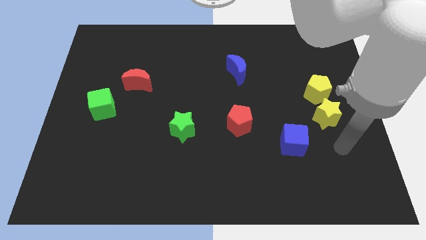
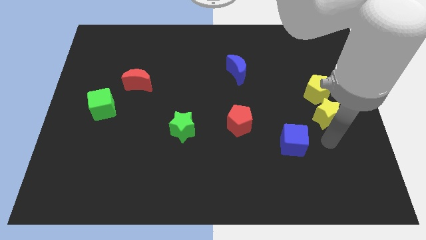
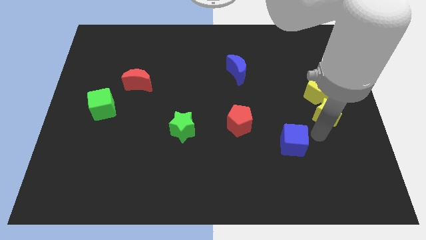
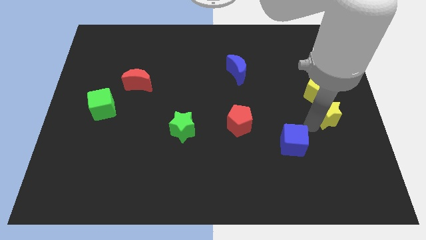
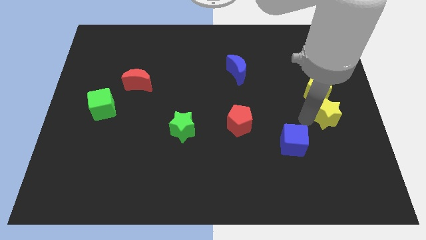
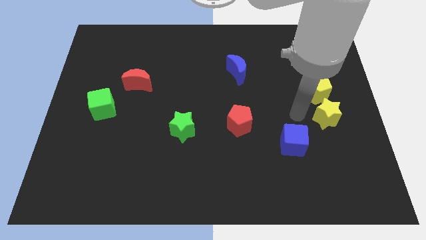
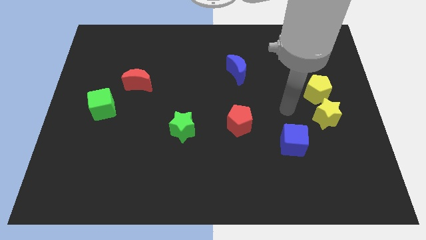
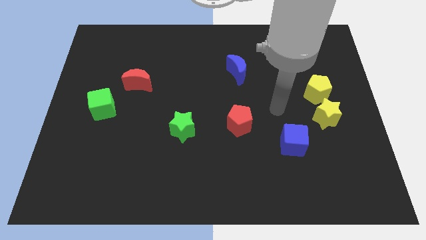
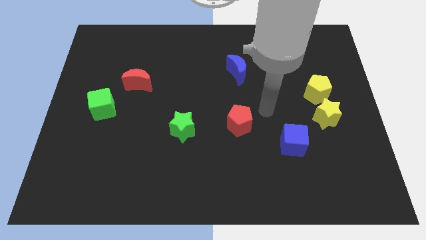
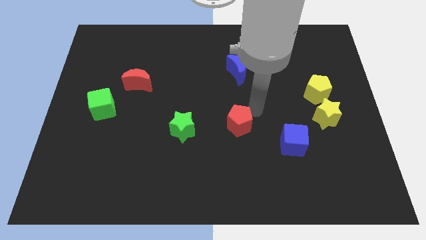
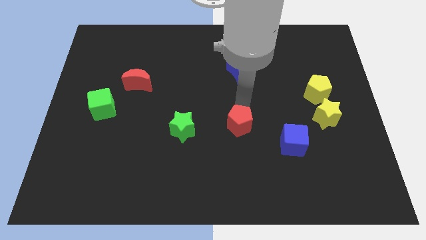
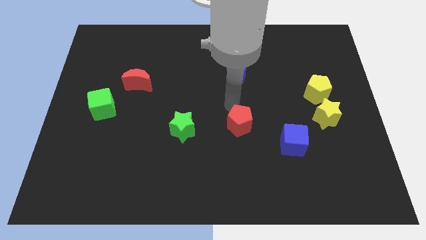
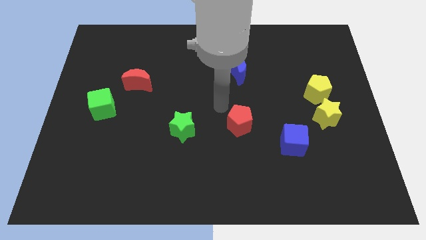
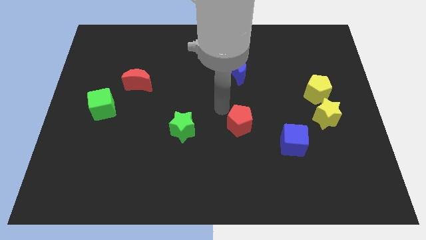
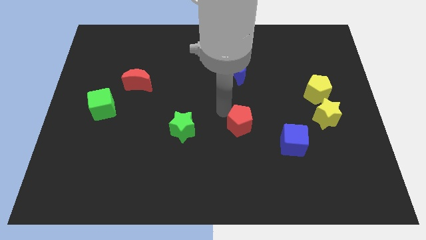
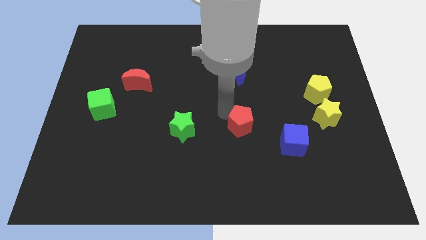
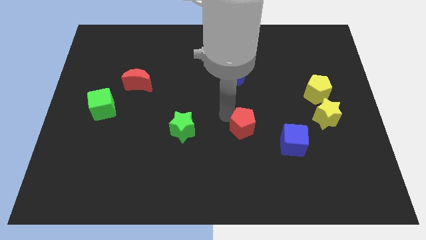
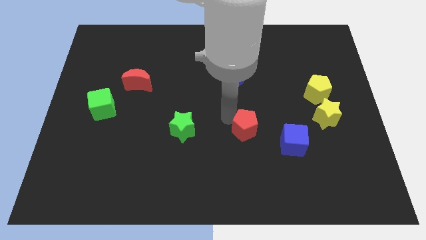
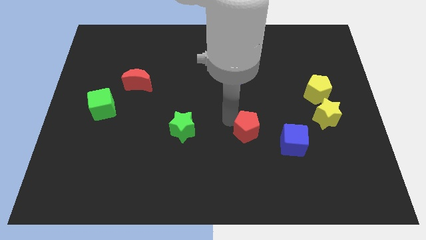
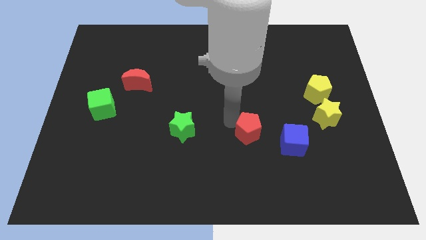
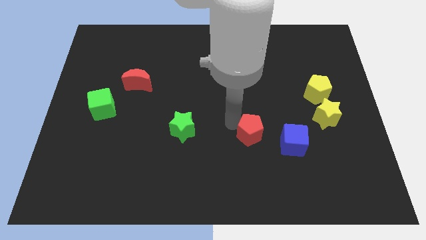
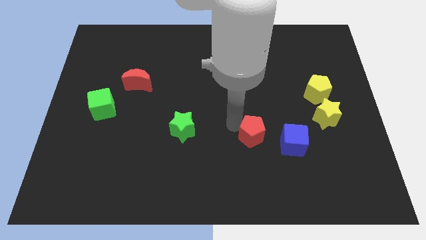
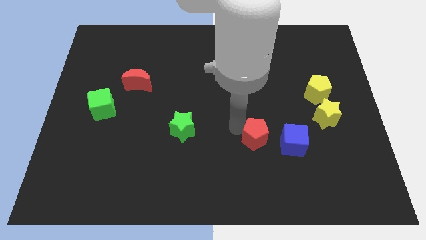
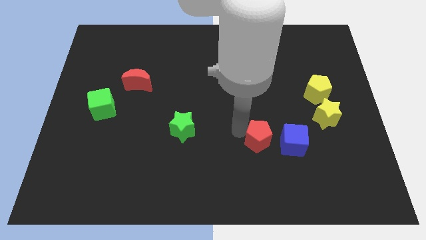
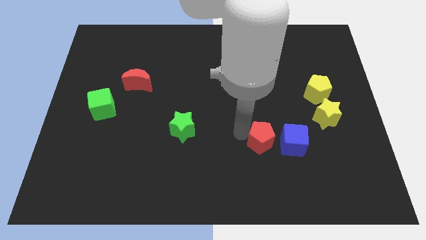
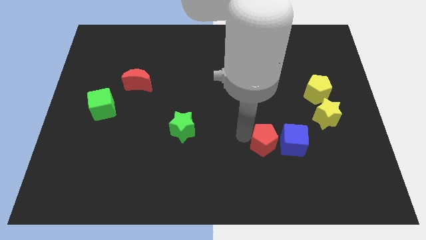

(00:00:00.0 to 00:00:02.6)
push the red pentagon a little bit down and then right

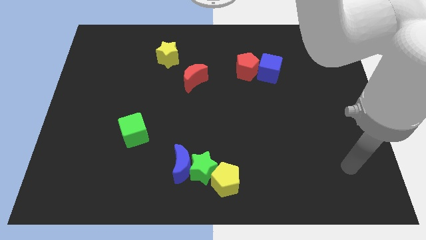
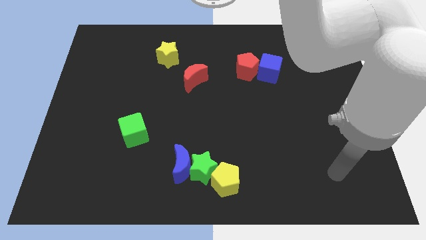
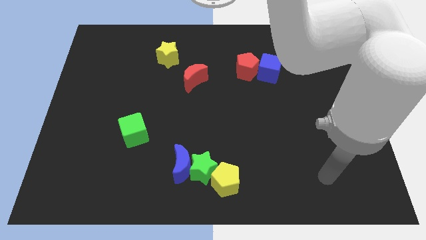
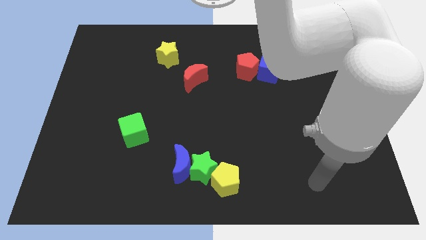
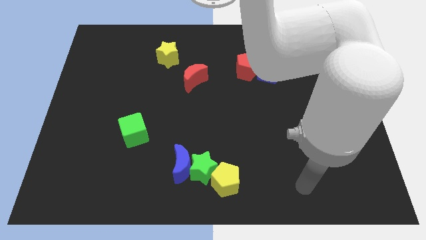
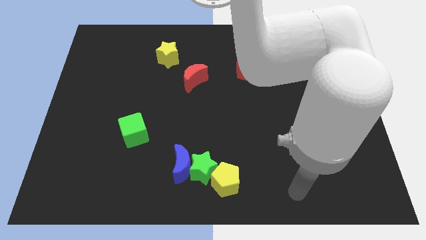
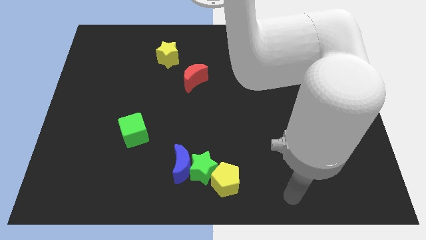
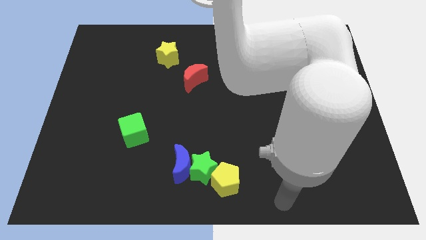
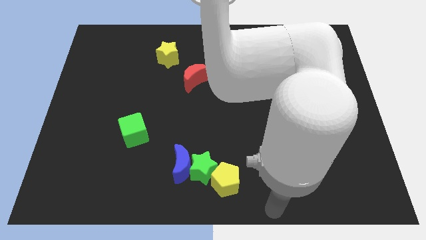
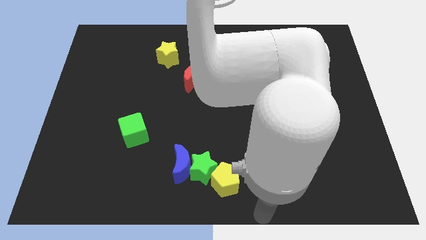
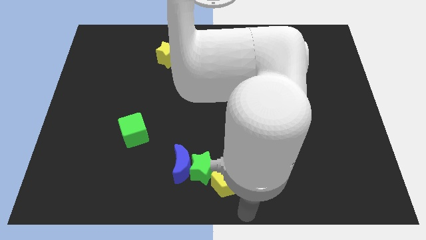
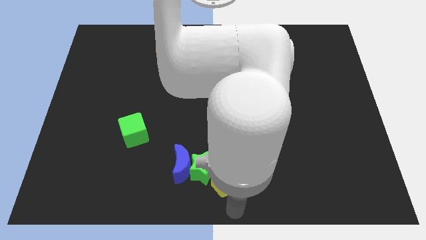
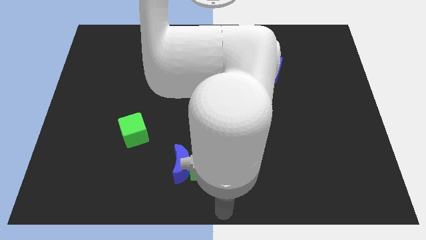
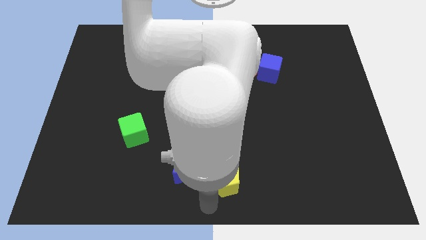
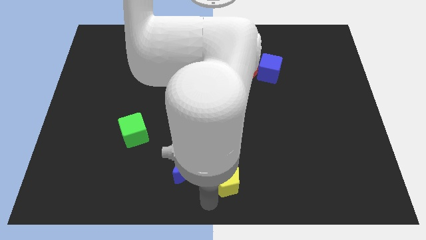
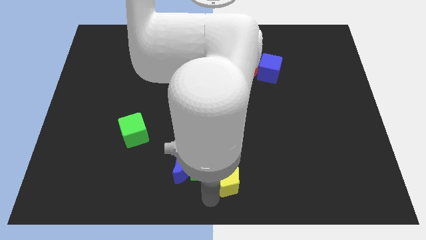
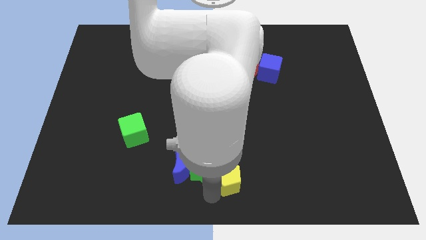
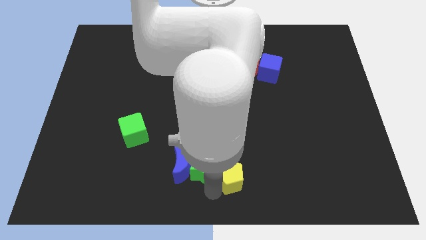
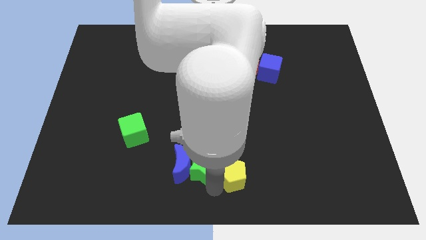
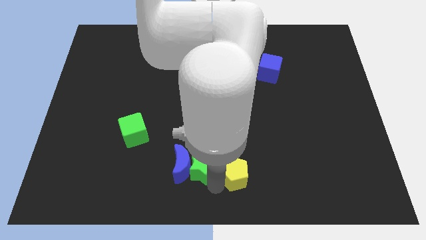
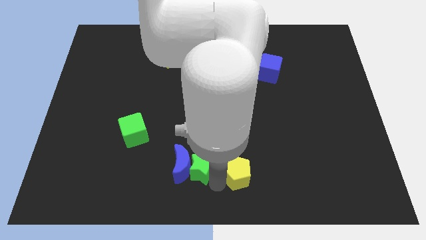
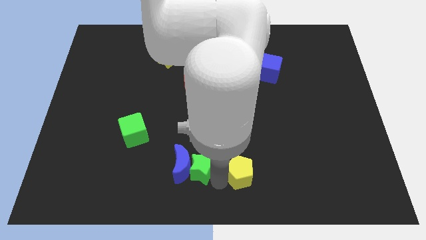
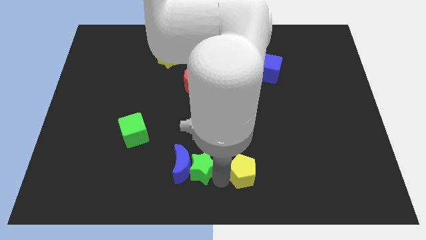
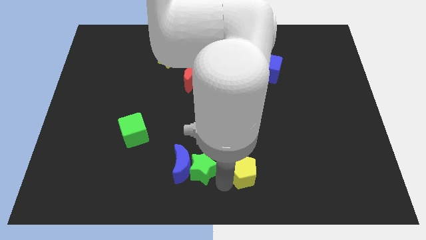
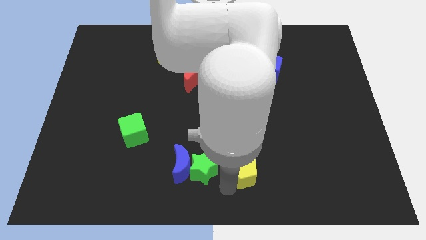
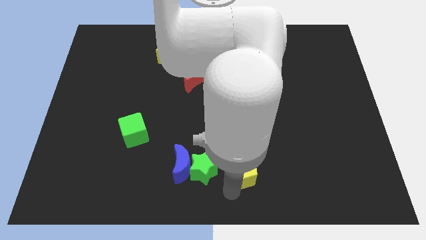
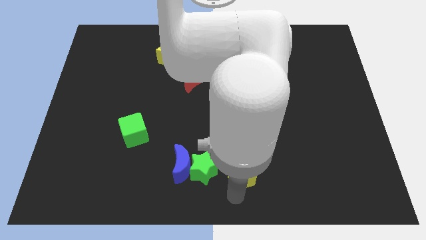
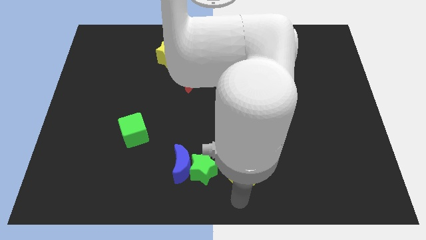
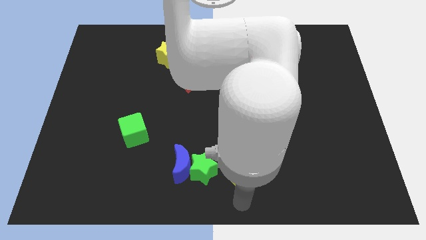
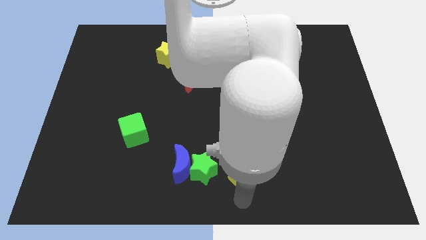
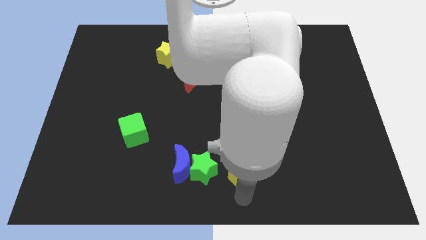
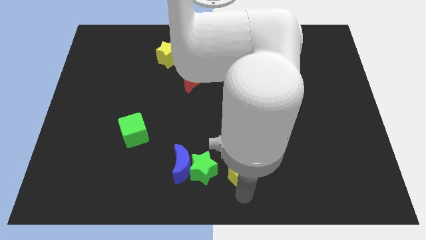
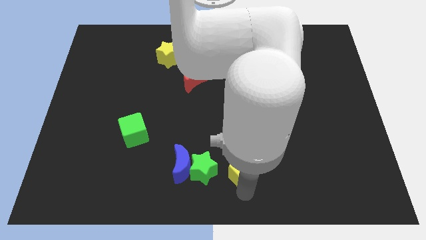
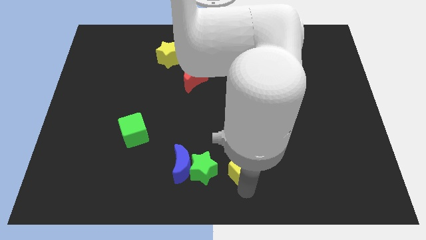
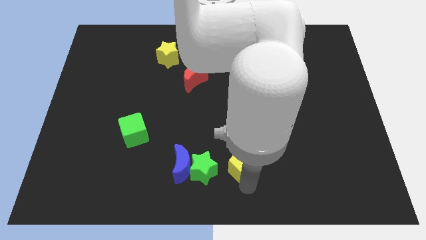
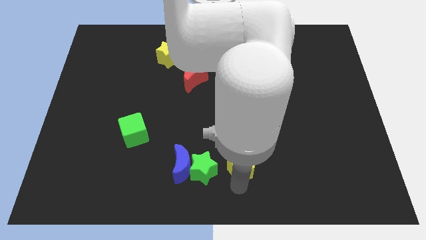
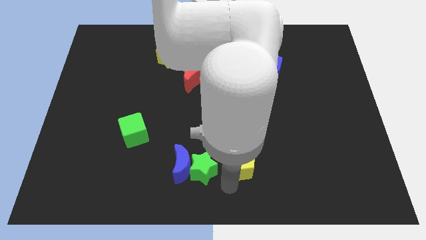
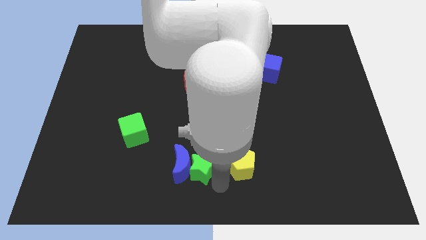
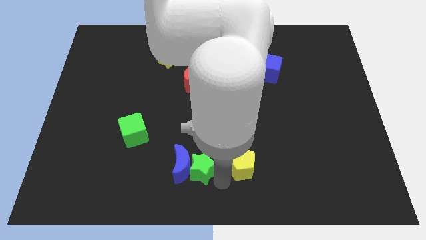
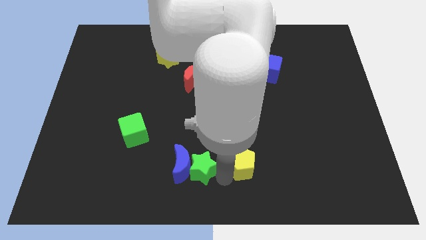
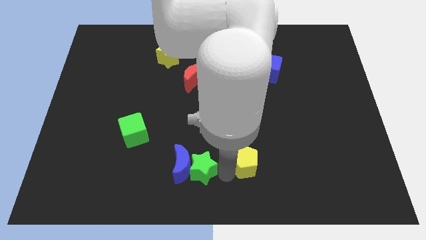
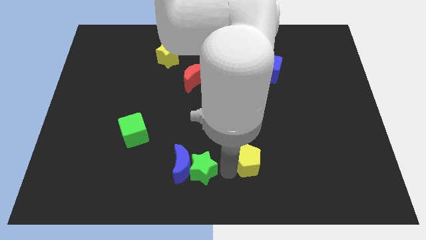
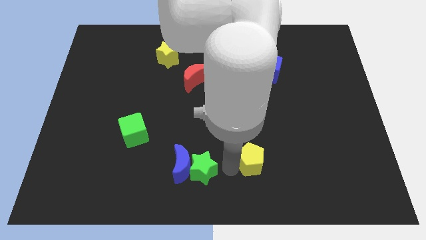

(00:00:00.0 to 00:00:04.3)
slightly slide the yellow pentagon up and to the right

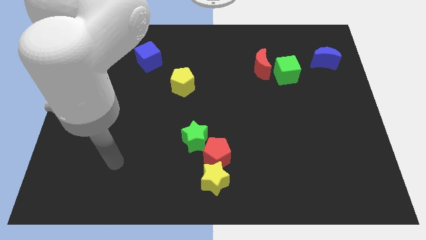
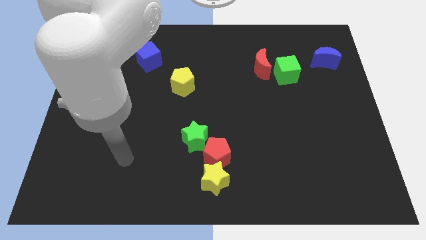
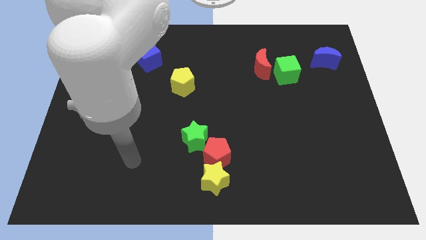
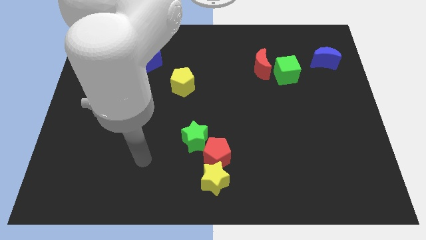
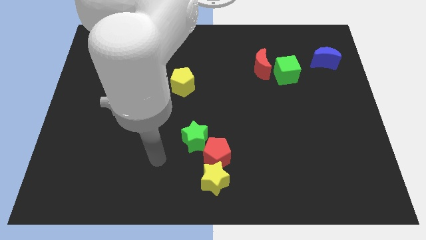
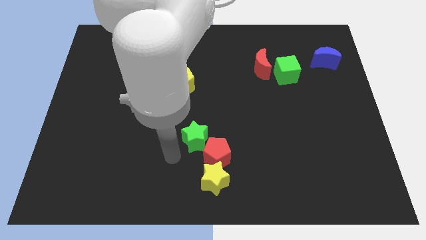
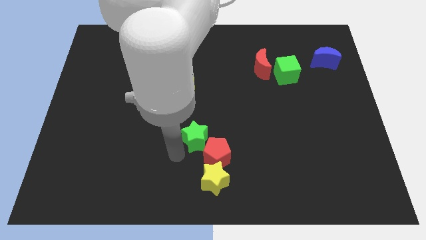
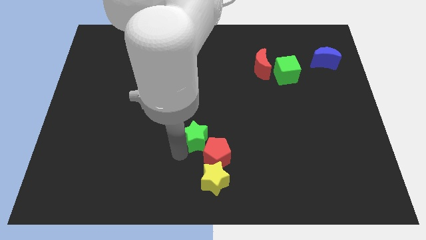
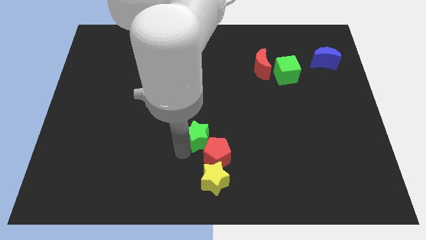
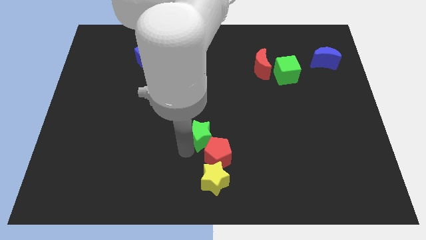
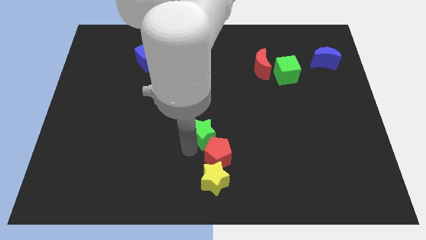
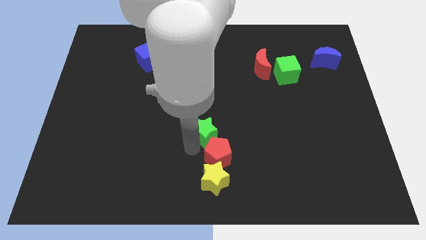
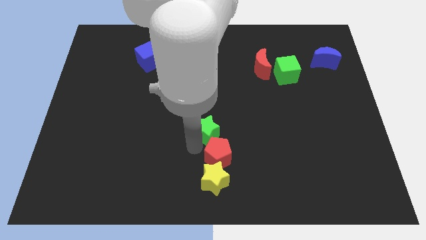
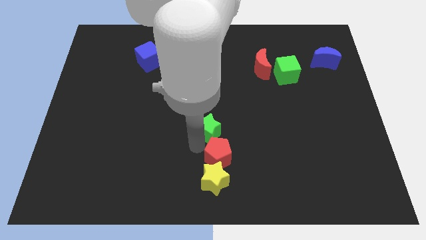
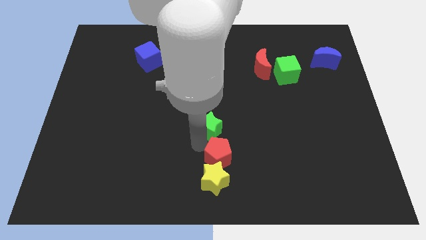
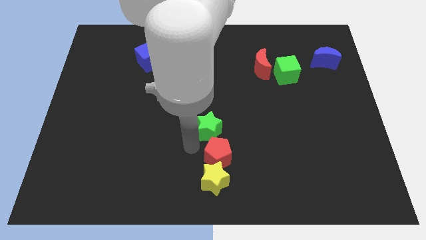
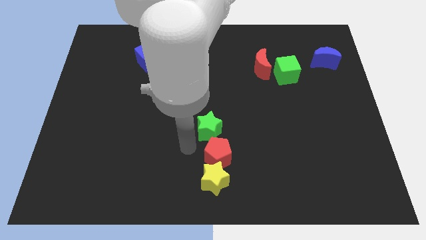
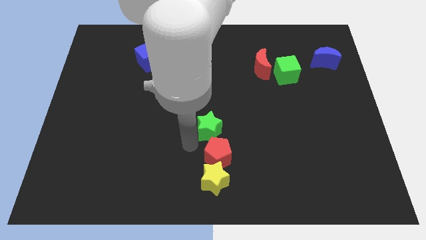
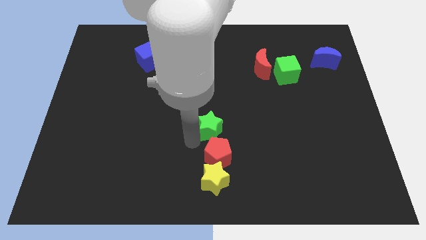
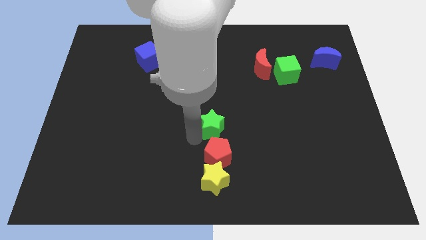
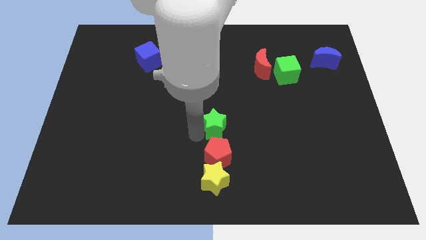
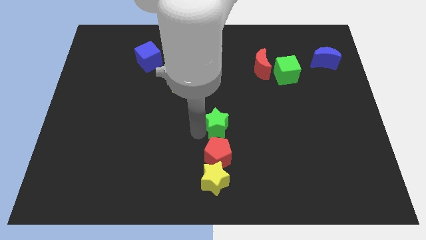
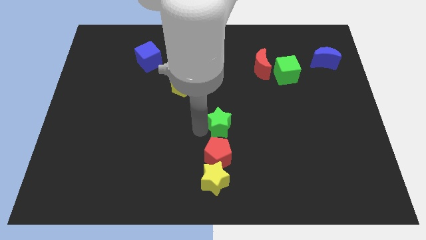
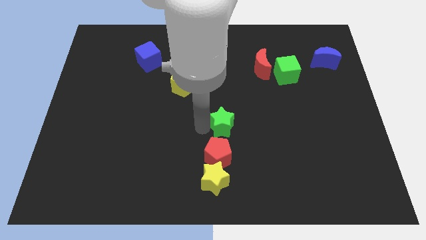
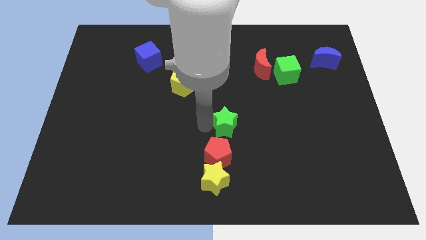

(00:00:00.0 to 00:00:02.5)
push the green star a little diagonally up and right
